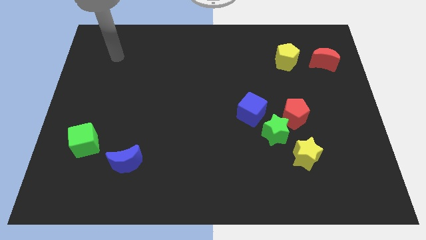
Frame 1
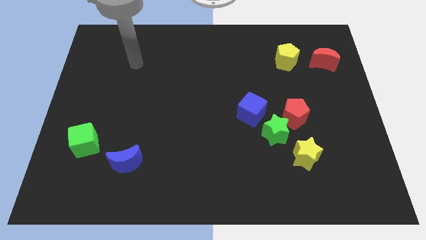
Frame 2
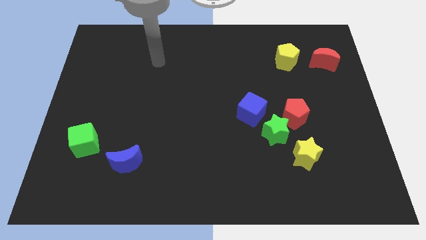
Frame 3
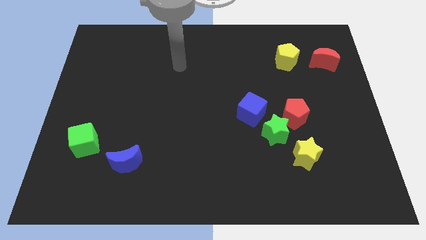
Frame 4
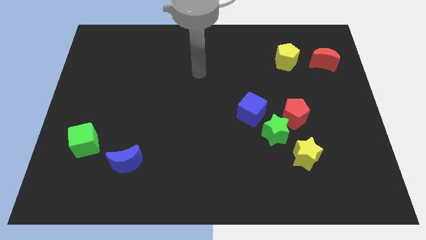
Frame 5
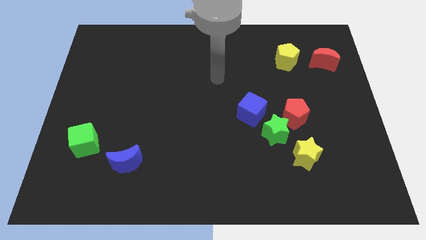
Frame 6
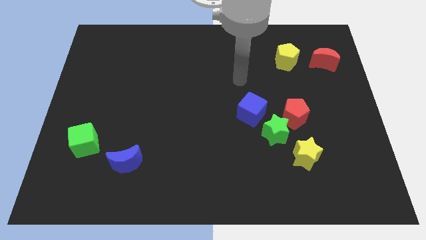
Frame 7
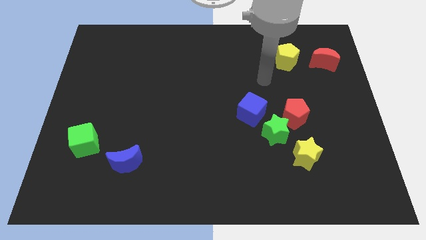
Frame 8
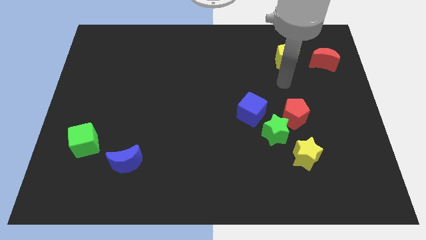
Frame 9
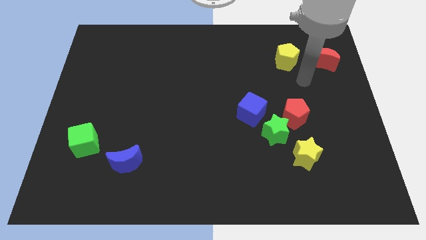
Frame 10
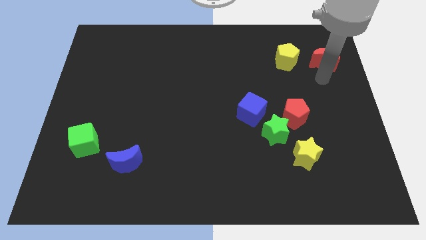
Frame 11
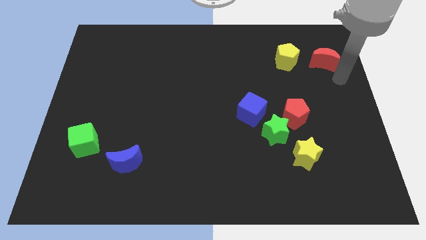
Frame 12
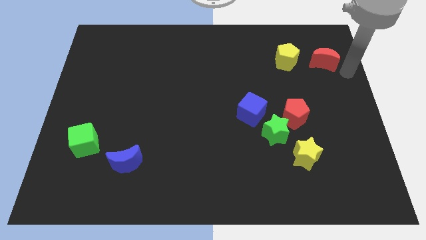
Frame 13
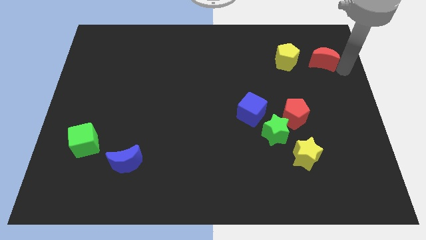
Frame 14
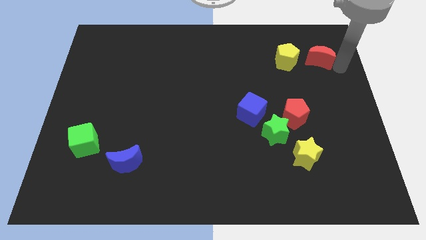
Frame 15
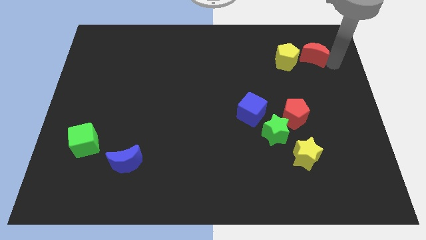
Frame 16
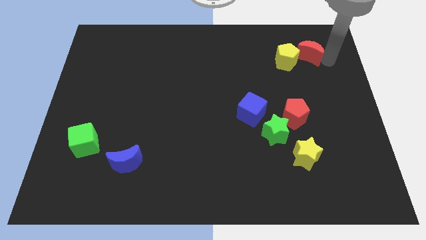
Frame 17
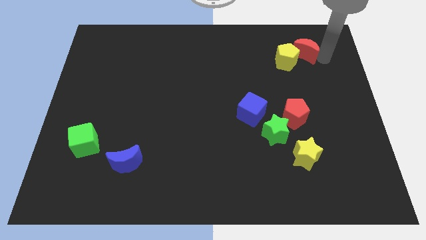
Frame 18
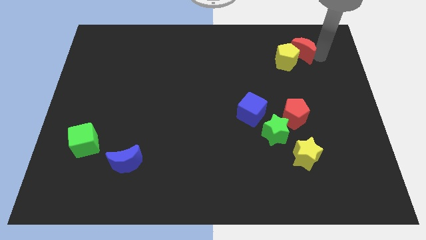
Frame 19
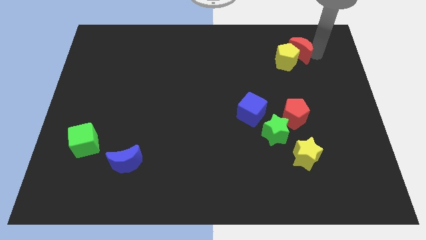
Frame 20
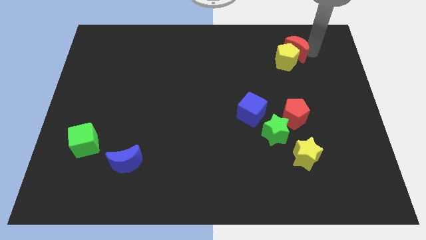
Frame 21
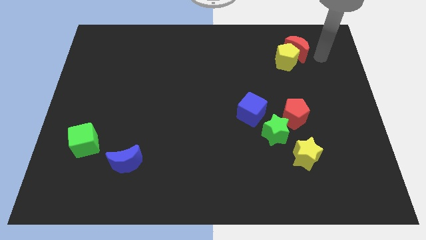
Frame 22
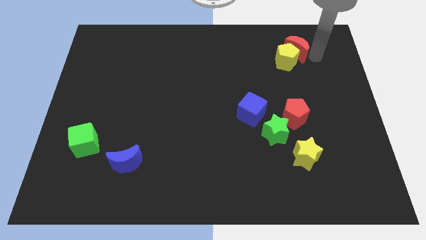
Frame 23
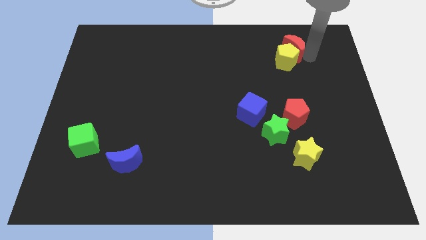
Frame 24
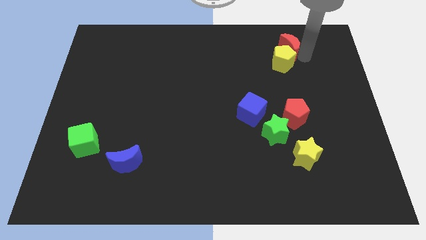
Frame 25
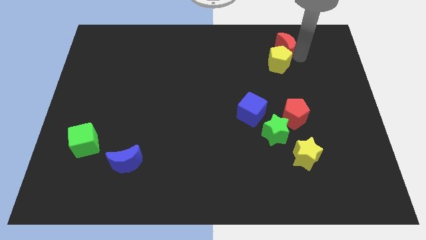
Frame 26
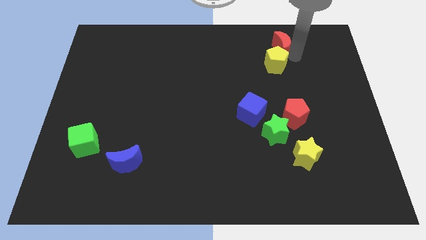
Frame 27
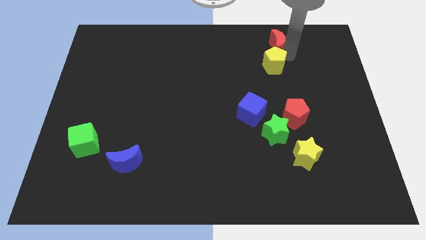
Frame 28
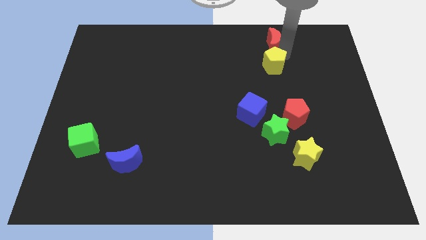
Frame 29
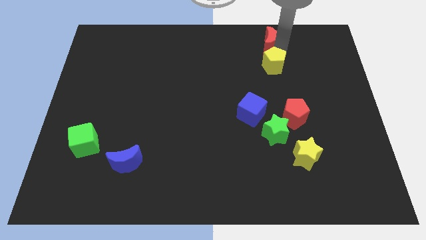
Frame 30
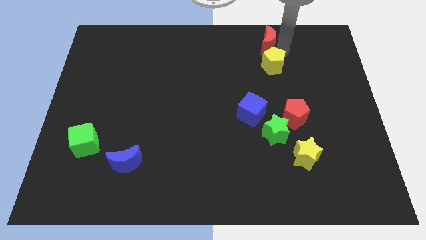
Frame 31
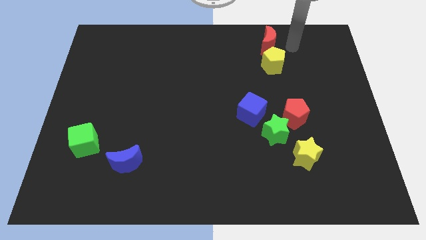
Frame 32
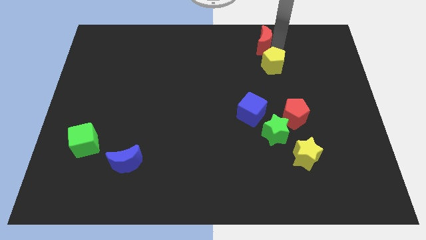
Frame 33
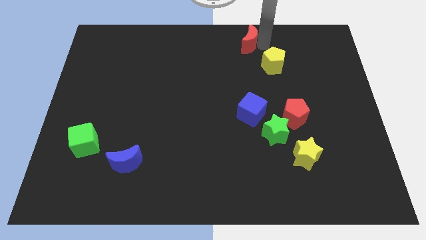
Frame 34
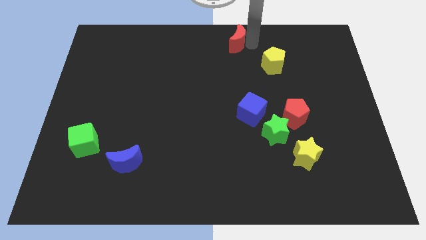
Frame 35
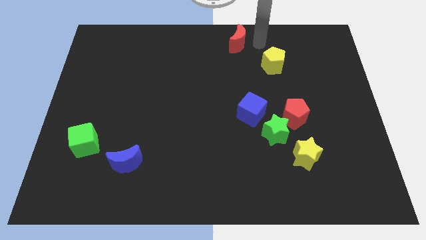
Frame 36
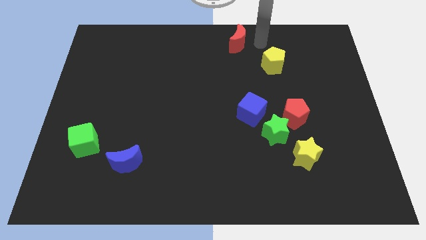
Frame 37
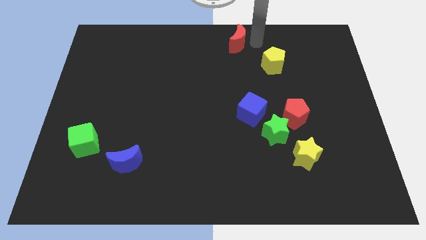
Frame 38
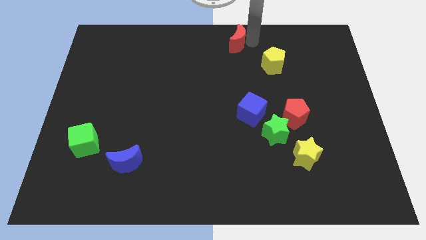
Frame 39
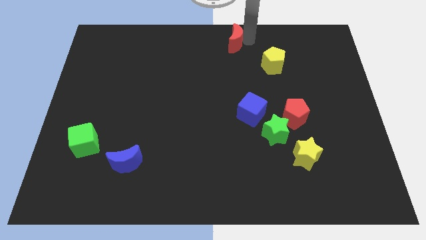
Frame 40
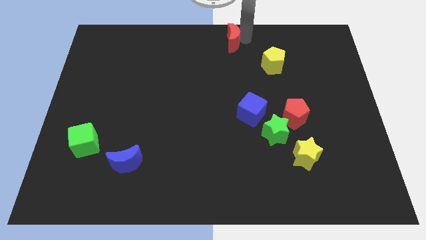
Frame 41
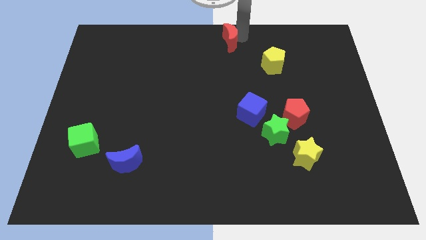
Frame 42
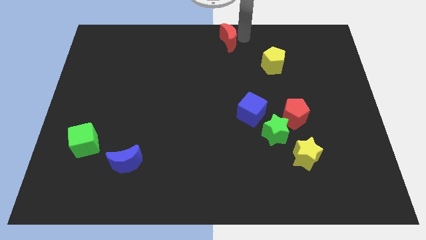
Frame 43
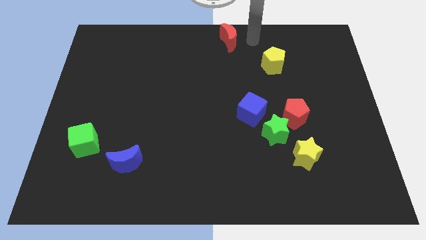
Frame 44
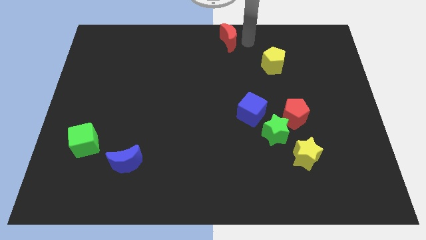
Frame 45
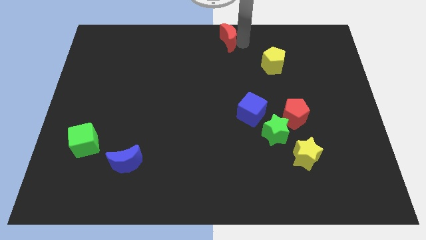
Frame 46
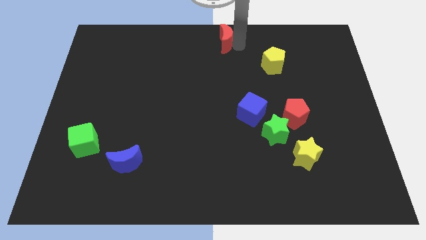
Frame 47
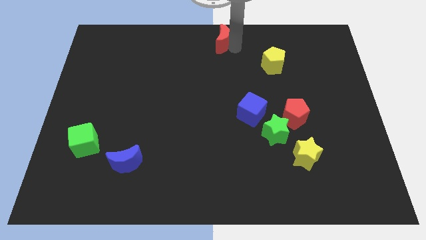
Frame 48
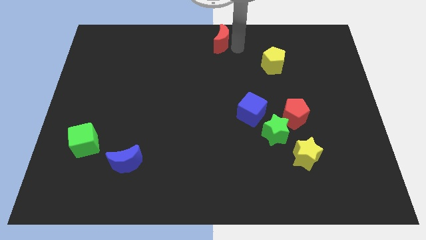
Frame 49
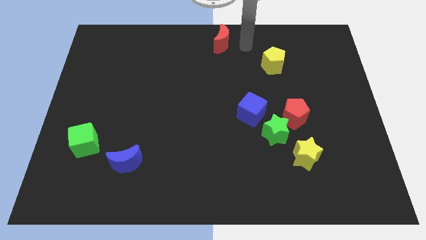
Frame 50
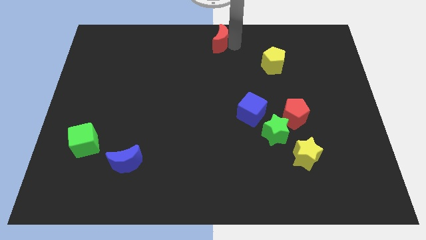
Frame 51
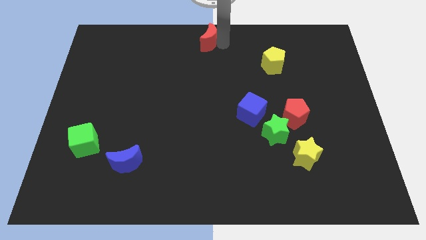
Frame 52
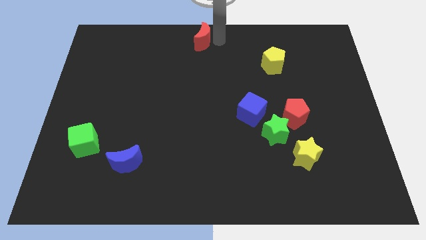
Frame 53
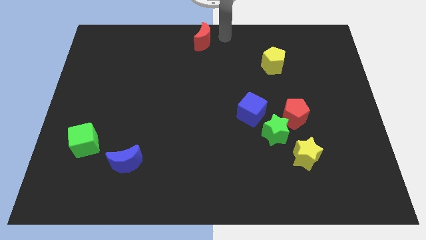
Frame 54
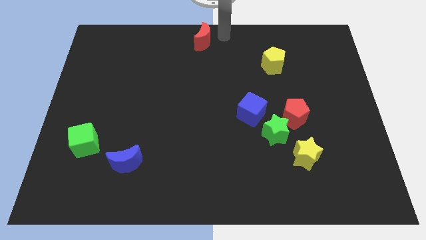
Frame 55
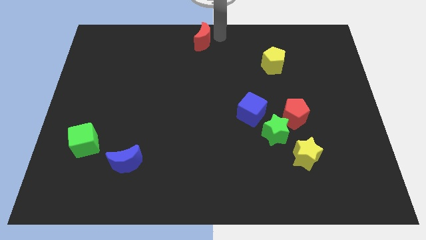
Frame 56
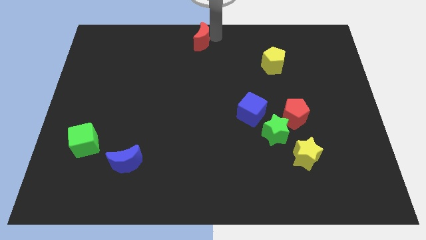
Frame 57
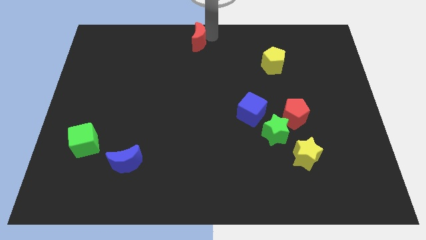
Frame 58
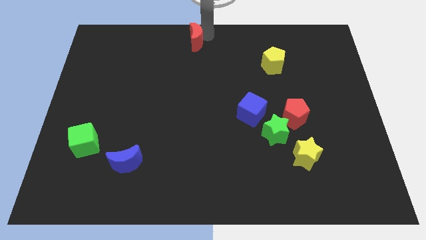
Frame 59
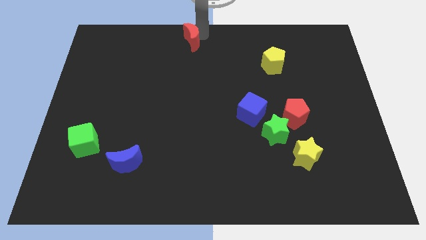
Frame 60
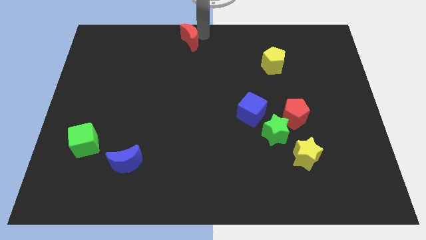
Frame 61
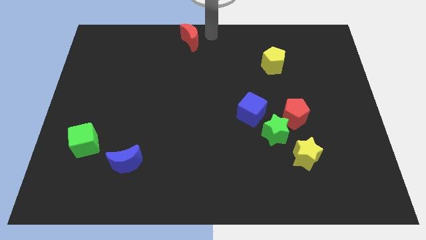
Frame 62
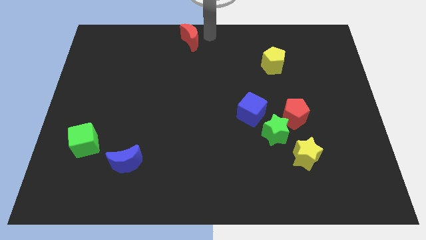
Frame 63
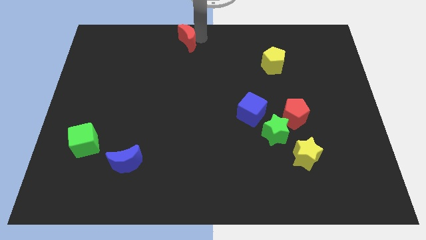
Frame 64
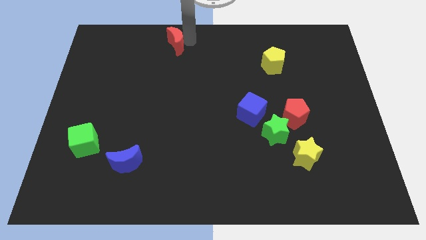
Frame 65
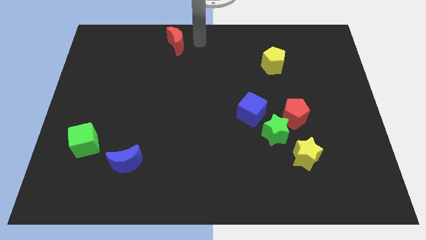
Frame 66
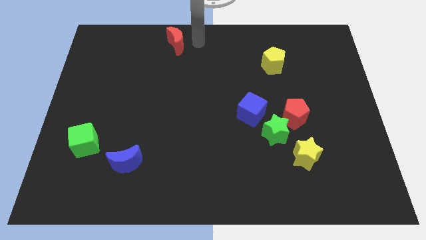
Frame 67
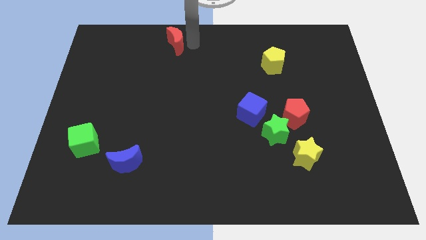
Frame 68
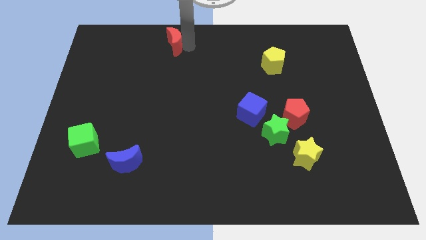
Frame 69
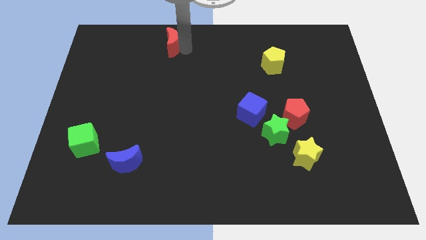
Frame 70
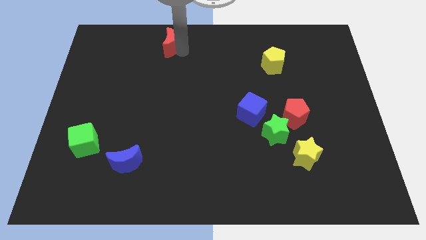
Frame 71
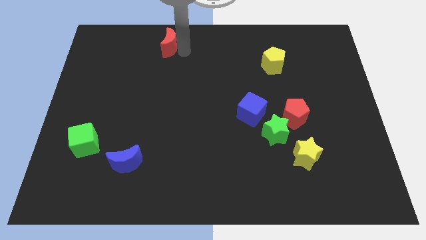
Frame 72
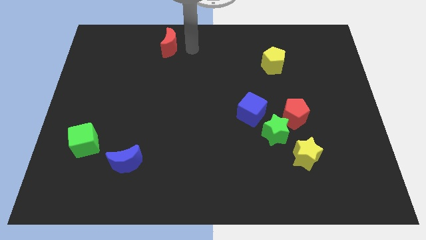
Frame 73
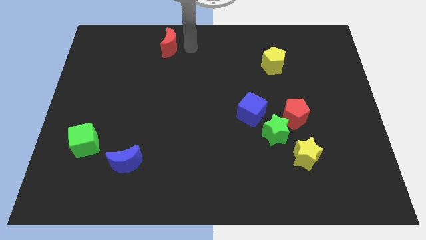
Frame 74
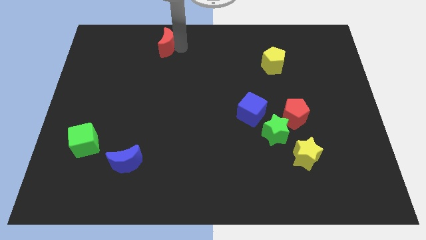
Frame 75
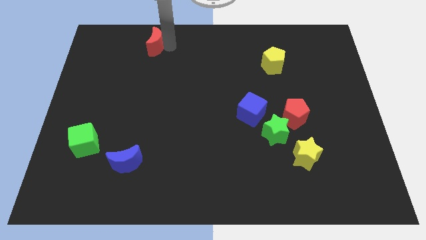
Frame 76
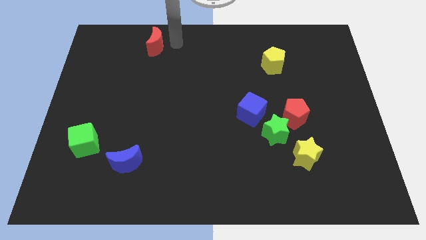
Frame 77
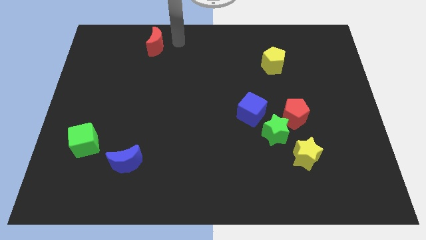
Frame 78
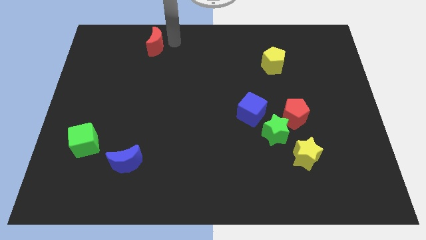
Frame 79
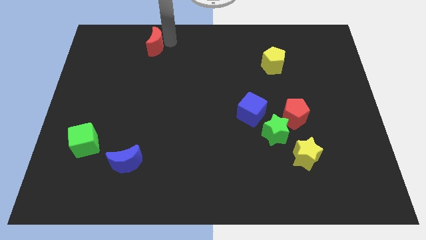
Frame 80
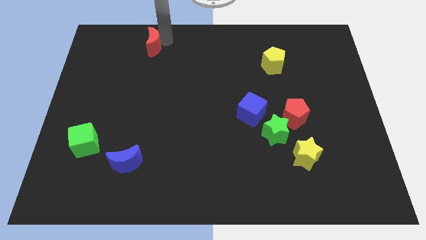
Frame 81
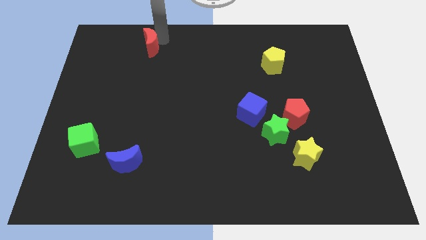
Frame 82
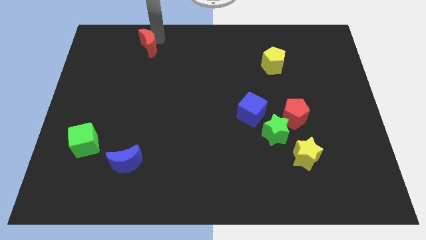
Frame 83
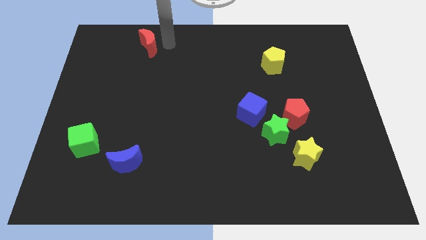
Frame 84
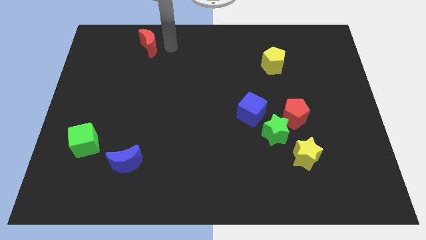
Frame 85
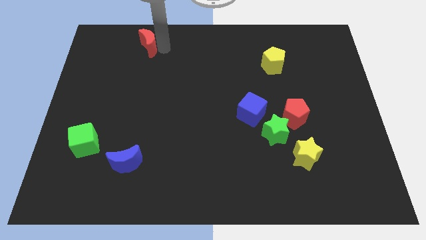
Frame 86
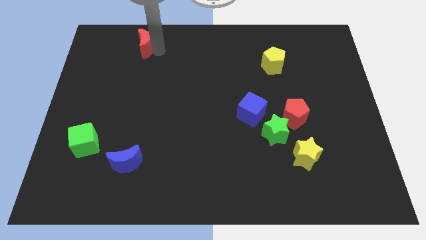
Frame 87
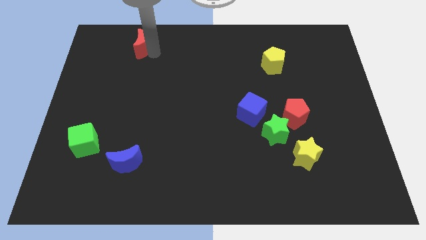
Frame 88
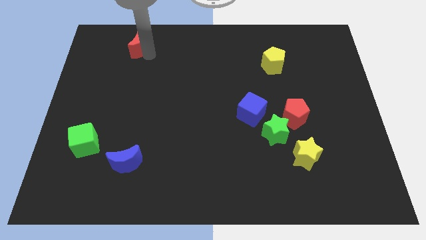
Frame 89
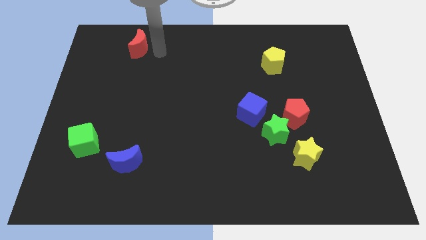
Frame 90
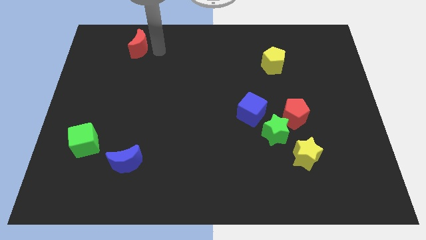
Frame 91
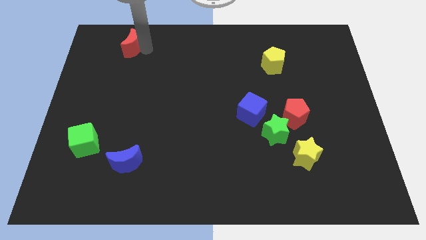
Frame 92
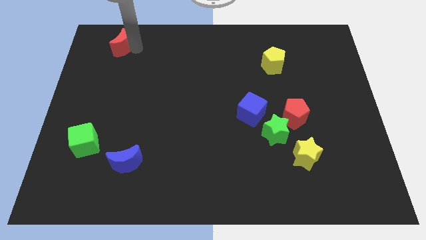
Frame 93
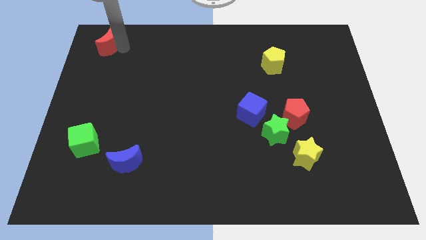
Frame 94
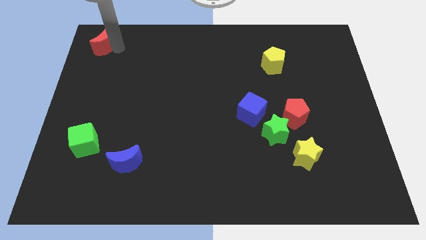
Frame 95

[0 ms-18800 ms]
move the red moon to the top left corner
